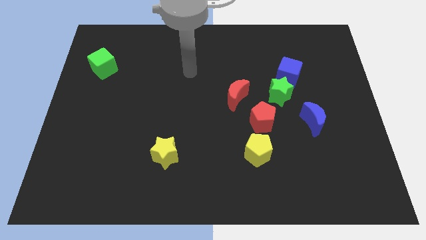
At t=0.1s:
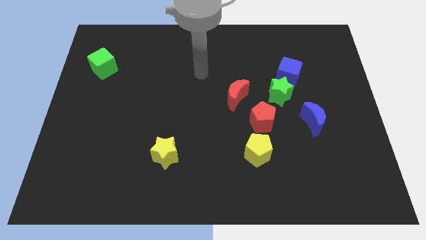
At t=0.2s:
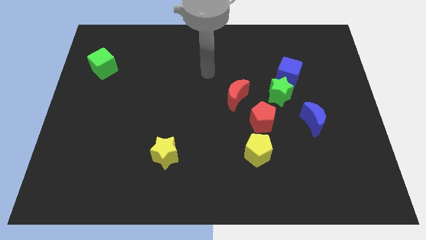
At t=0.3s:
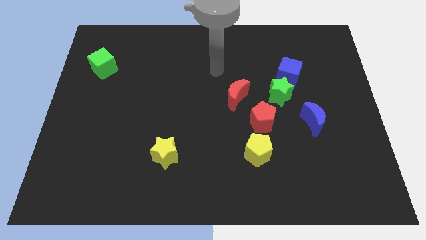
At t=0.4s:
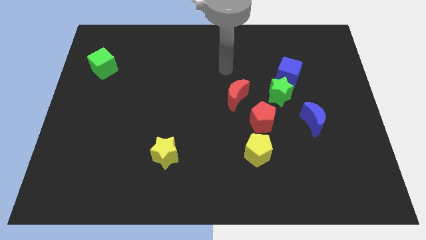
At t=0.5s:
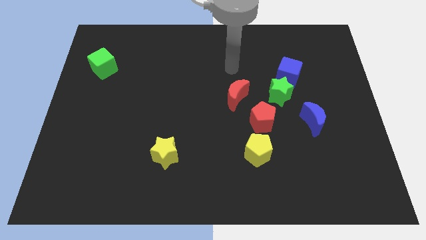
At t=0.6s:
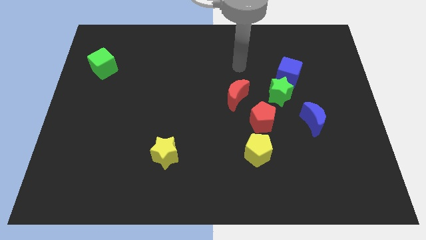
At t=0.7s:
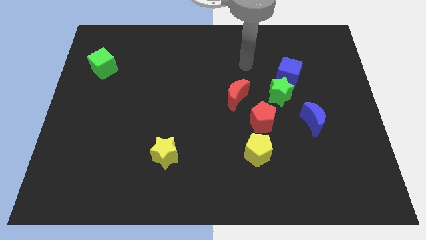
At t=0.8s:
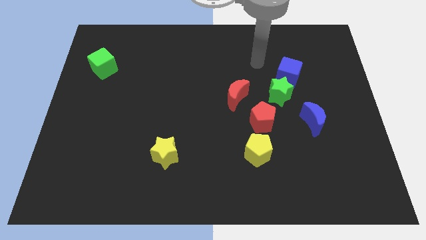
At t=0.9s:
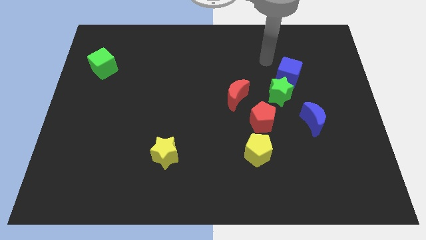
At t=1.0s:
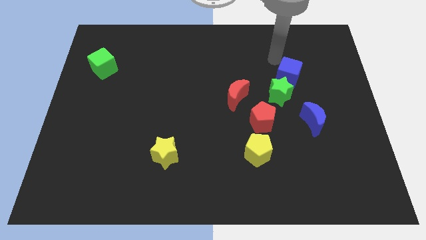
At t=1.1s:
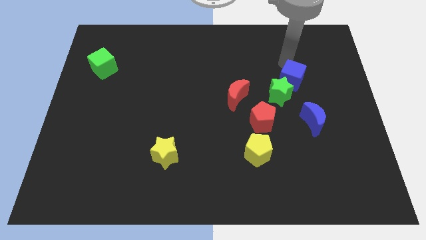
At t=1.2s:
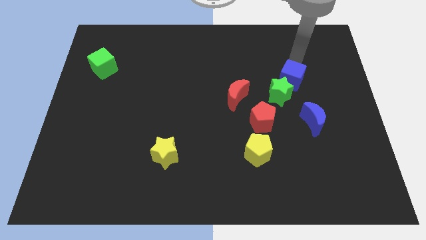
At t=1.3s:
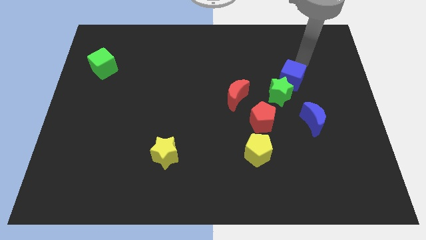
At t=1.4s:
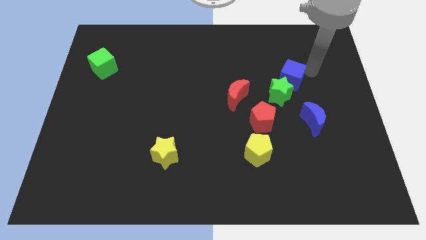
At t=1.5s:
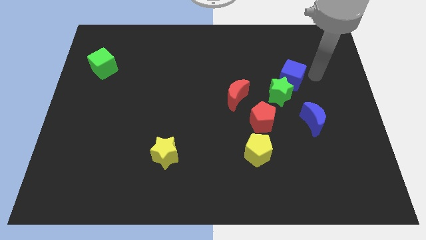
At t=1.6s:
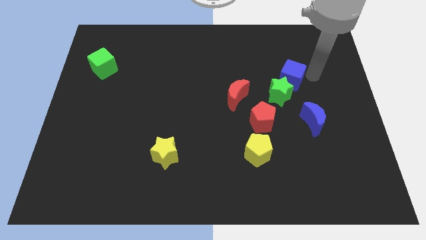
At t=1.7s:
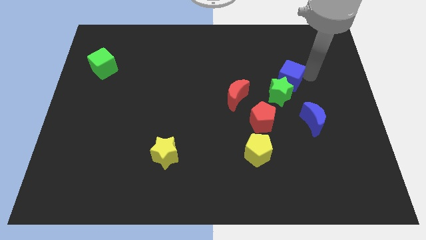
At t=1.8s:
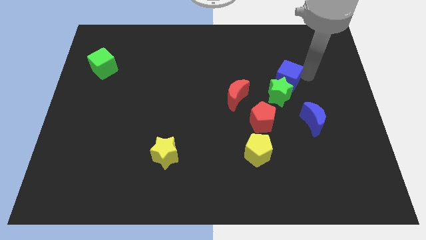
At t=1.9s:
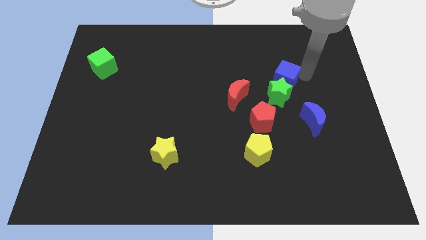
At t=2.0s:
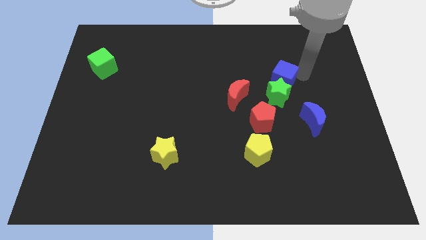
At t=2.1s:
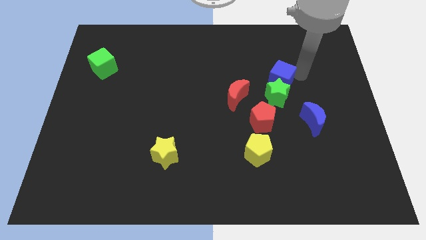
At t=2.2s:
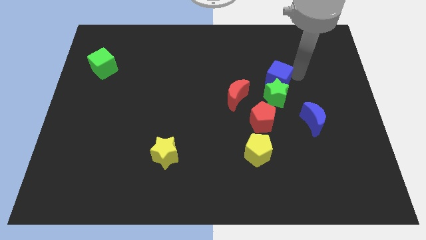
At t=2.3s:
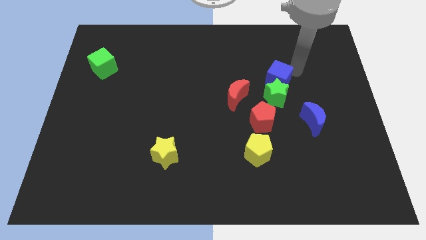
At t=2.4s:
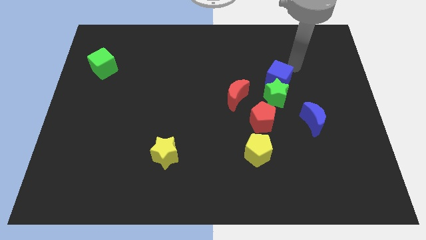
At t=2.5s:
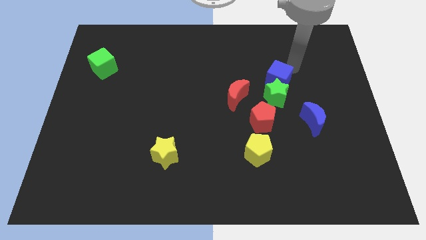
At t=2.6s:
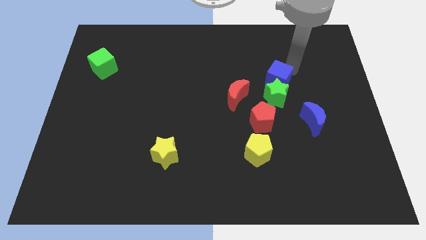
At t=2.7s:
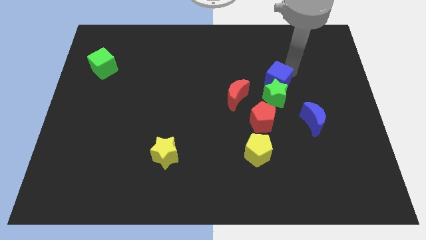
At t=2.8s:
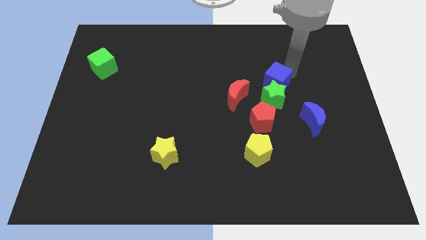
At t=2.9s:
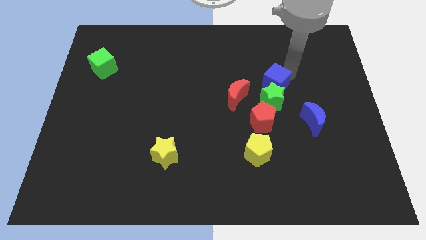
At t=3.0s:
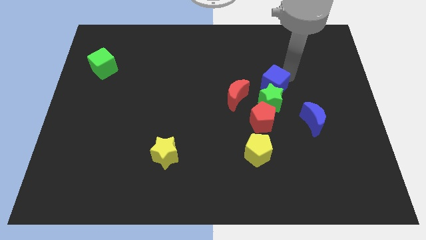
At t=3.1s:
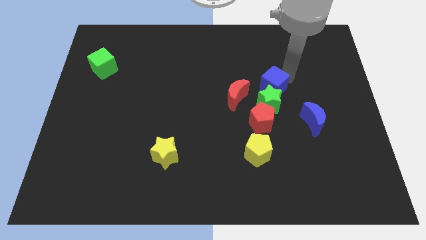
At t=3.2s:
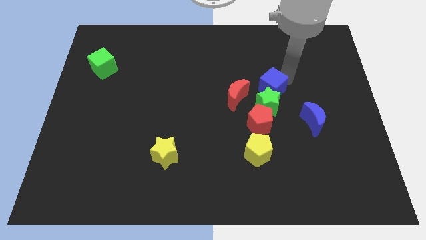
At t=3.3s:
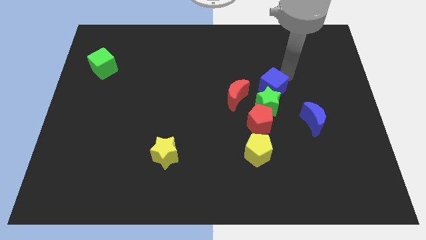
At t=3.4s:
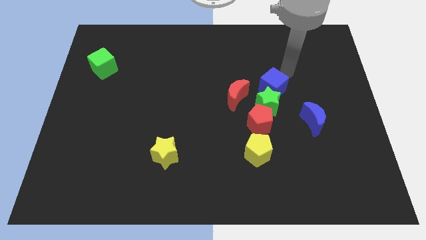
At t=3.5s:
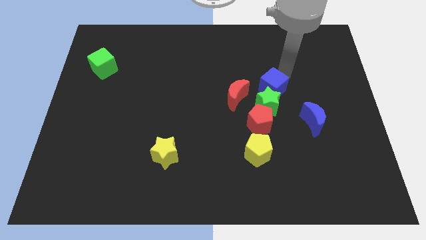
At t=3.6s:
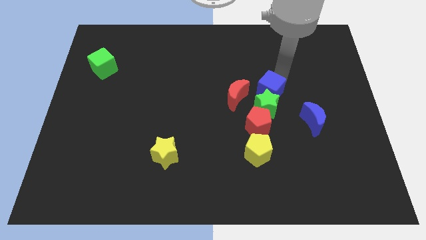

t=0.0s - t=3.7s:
move the blue cube a little down and left

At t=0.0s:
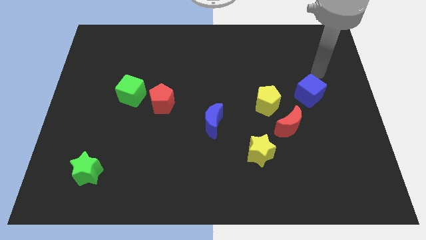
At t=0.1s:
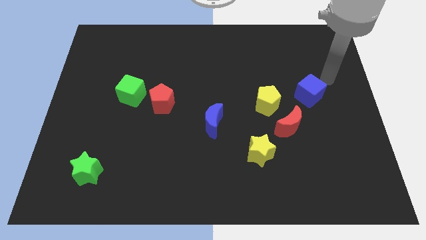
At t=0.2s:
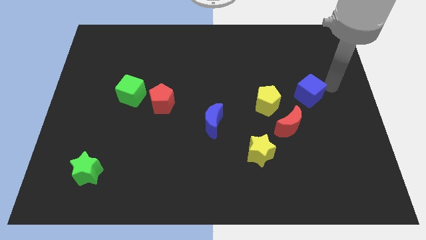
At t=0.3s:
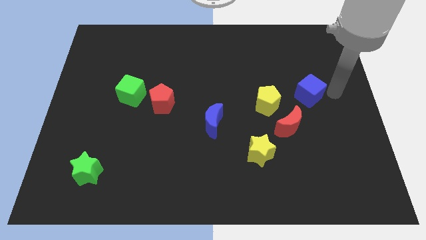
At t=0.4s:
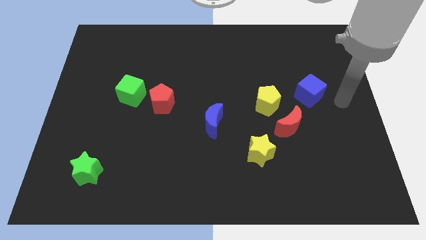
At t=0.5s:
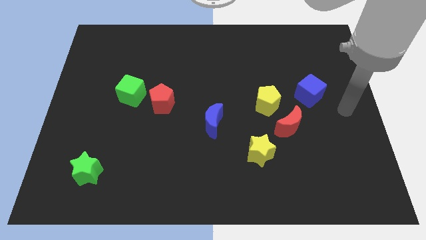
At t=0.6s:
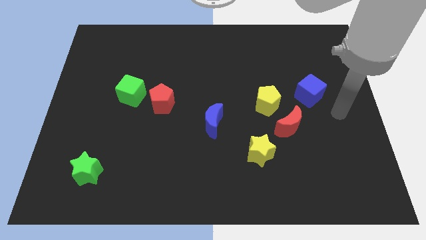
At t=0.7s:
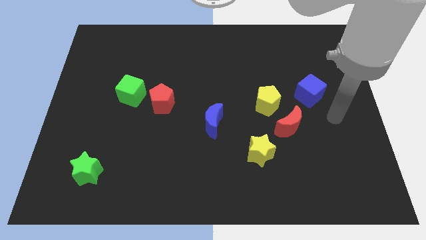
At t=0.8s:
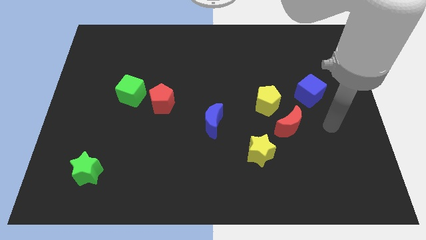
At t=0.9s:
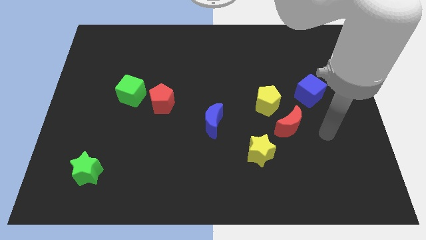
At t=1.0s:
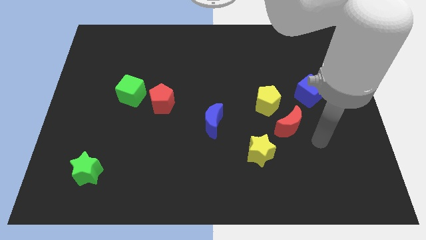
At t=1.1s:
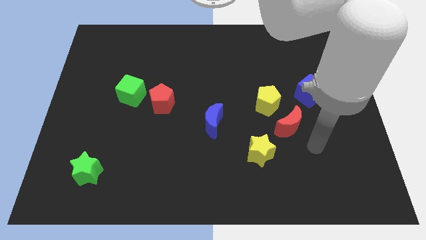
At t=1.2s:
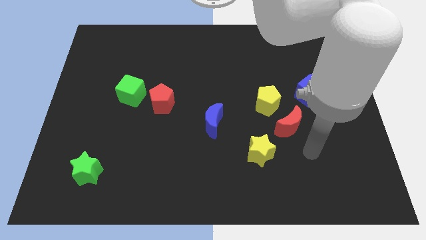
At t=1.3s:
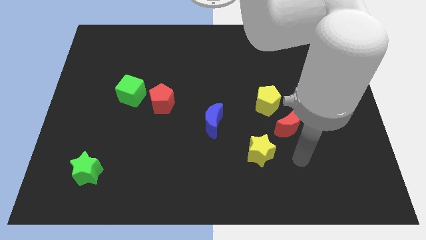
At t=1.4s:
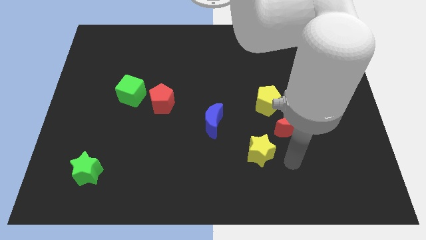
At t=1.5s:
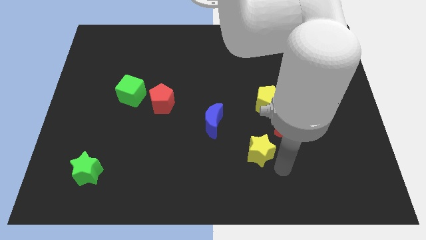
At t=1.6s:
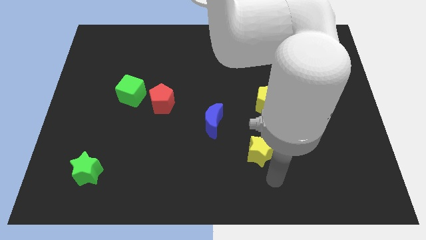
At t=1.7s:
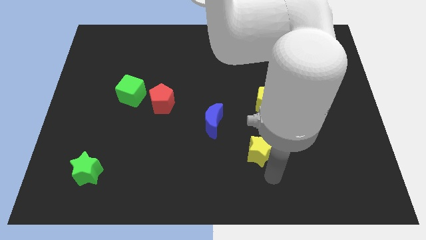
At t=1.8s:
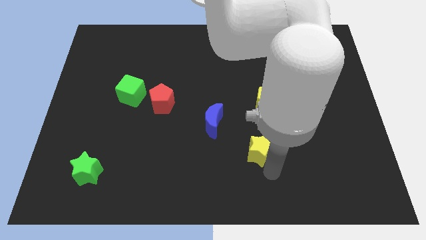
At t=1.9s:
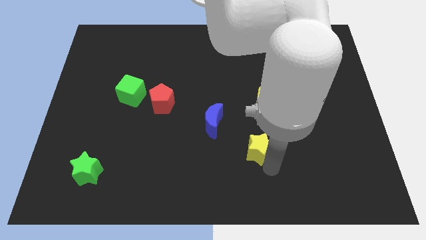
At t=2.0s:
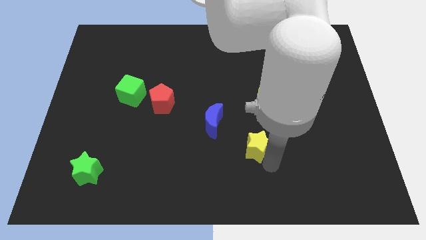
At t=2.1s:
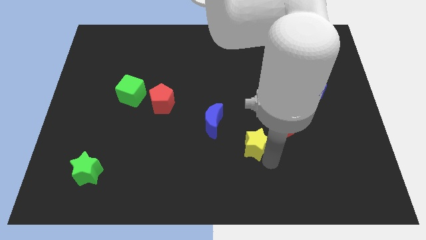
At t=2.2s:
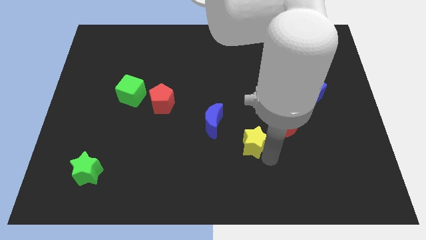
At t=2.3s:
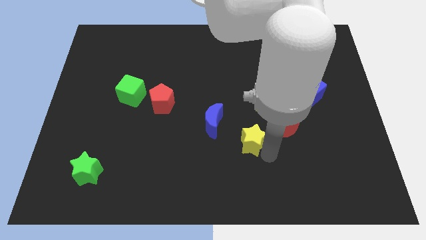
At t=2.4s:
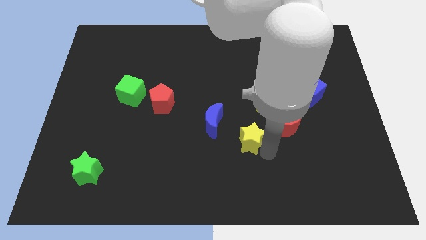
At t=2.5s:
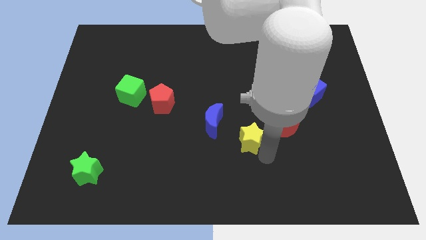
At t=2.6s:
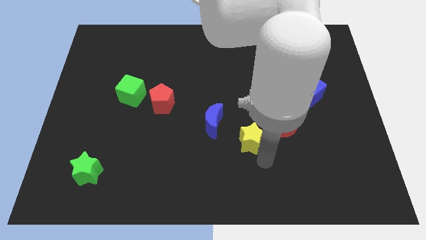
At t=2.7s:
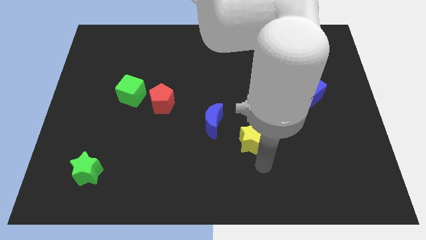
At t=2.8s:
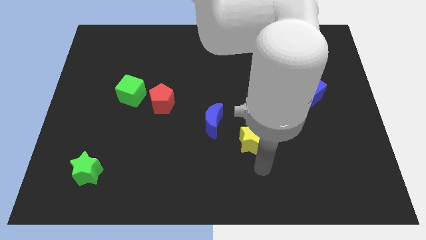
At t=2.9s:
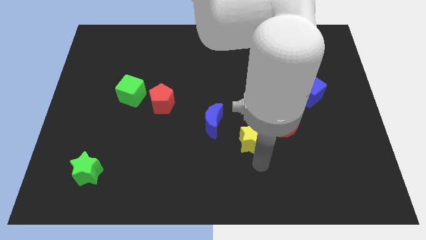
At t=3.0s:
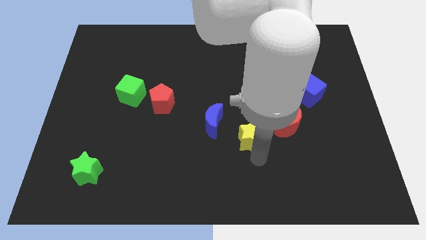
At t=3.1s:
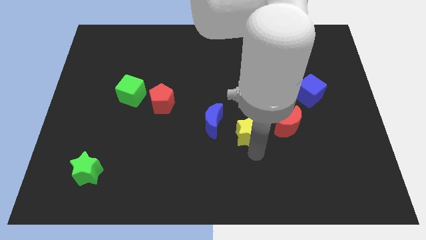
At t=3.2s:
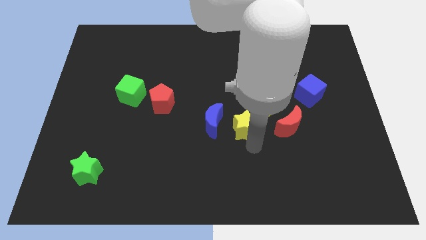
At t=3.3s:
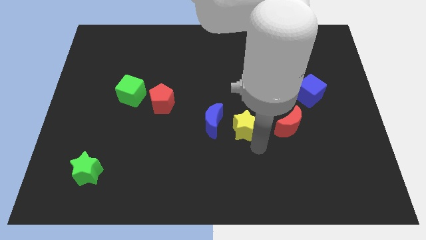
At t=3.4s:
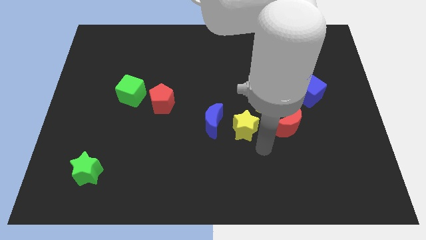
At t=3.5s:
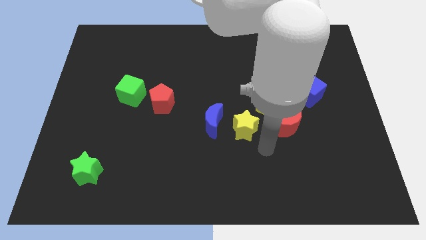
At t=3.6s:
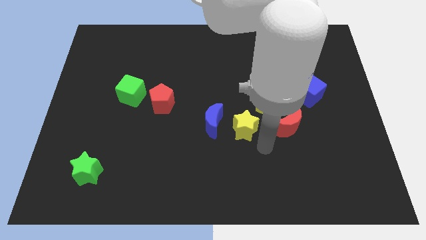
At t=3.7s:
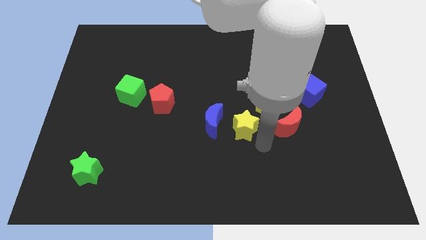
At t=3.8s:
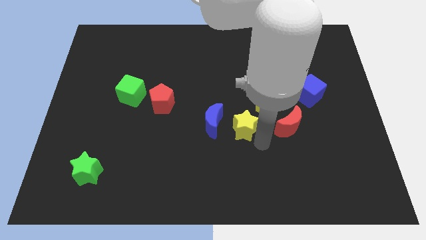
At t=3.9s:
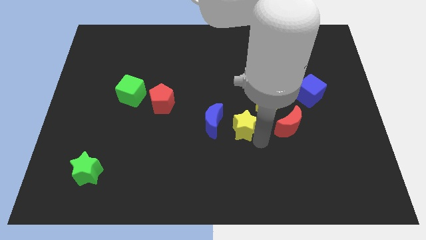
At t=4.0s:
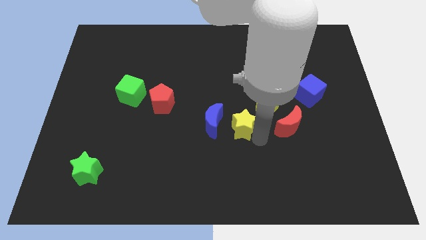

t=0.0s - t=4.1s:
slightly move the yellow star upwards and left

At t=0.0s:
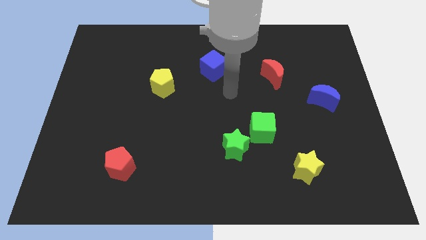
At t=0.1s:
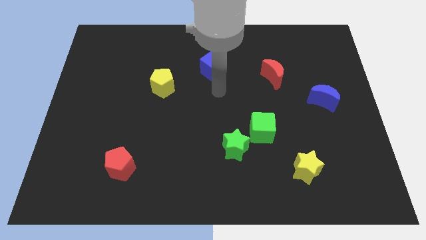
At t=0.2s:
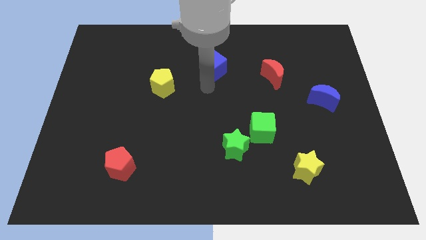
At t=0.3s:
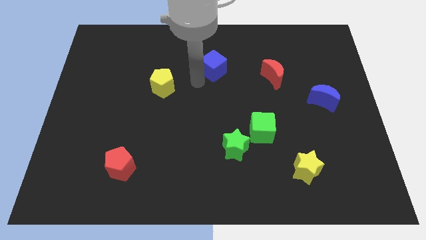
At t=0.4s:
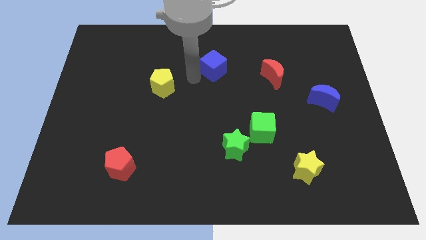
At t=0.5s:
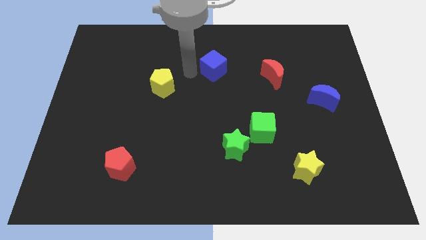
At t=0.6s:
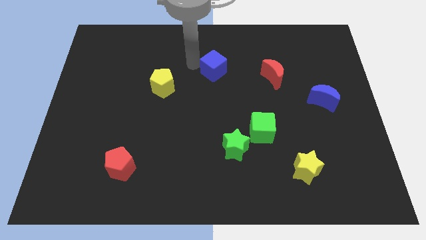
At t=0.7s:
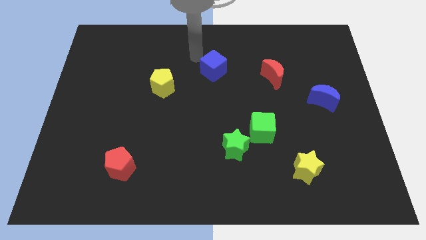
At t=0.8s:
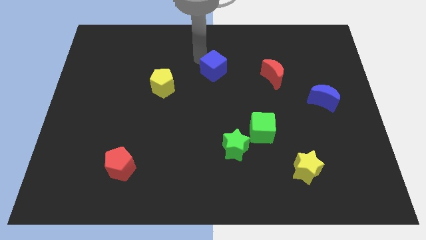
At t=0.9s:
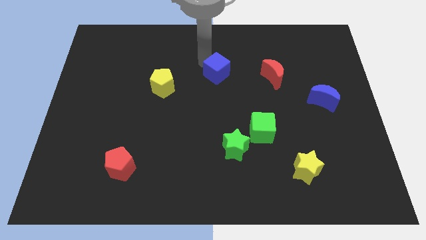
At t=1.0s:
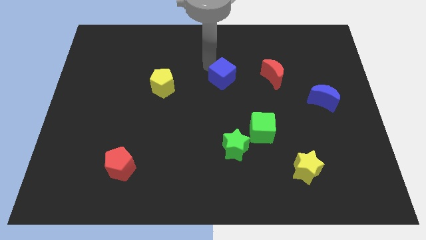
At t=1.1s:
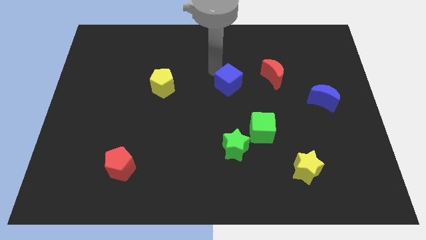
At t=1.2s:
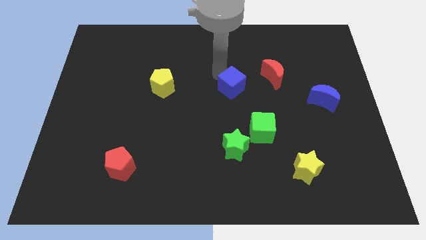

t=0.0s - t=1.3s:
slide the blue cube slightly down and to the right diagonally
